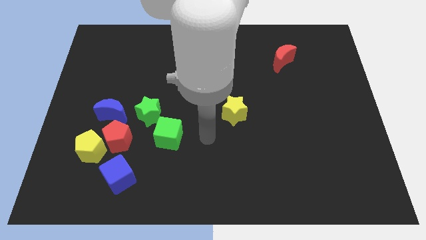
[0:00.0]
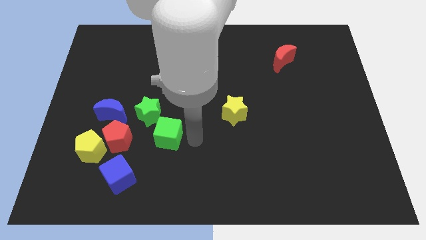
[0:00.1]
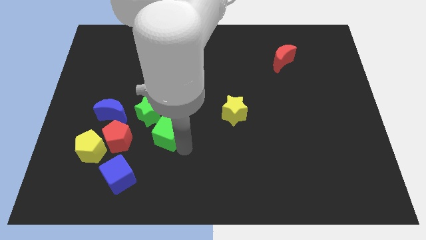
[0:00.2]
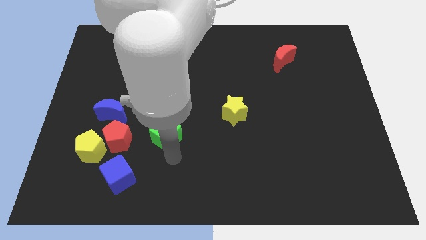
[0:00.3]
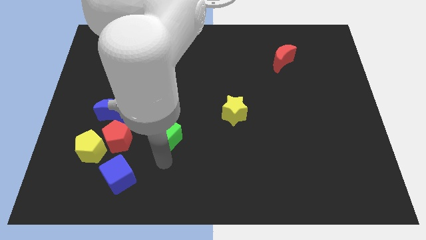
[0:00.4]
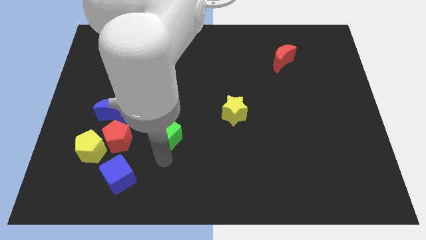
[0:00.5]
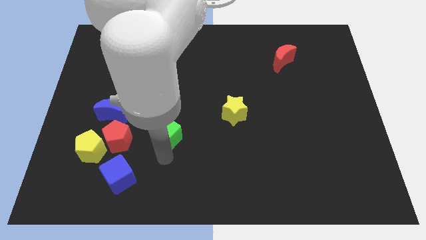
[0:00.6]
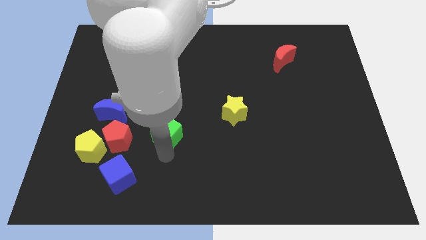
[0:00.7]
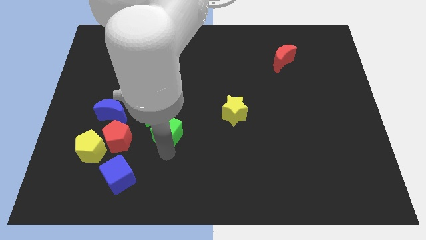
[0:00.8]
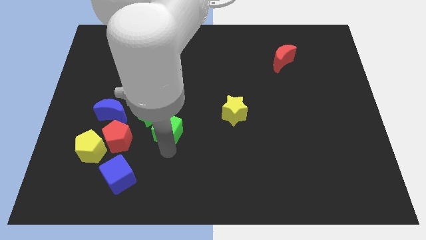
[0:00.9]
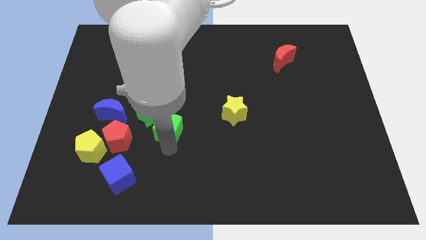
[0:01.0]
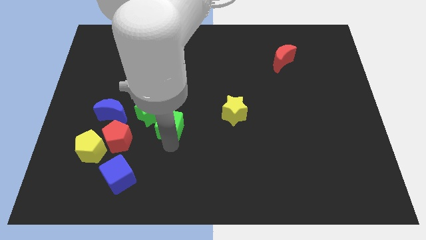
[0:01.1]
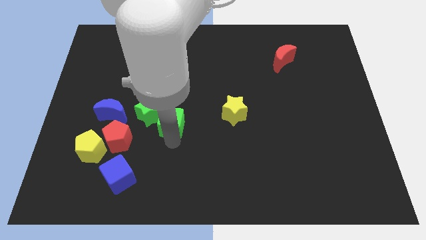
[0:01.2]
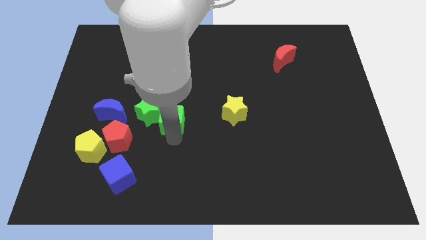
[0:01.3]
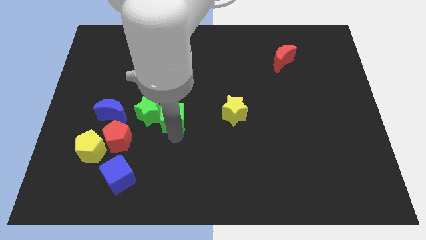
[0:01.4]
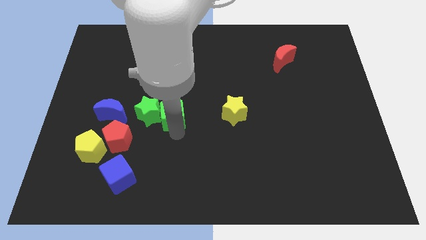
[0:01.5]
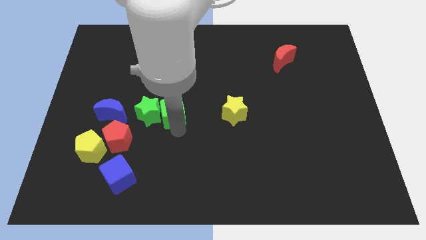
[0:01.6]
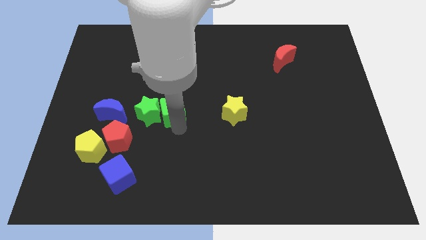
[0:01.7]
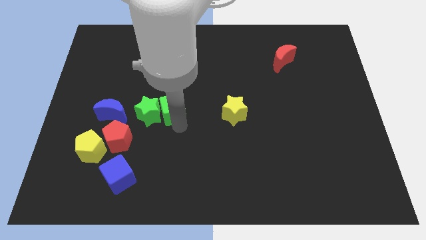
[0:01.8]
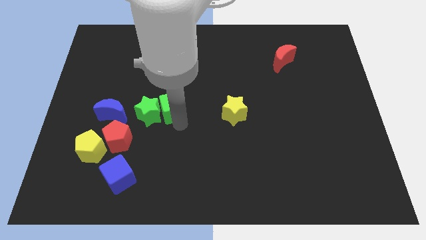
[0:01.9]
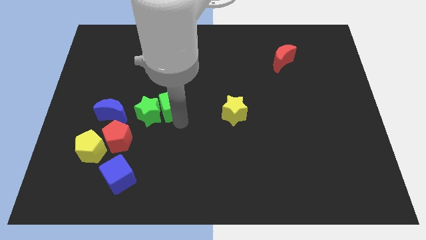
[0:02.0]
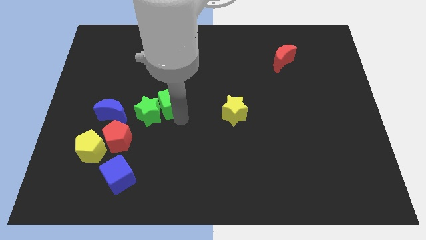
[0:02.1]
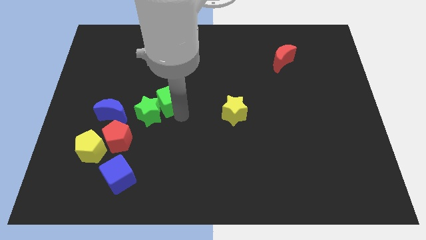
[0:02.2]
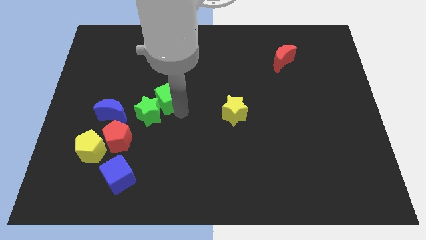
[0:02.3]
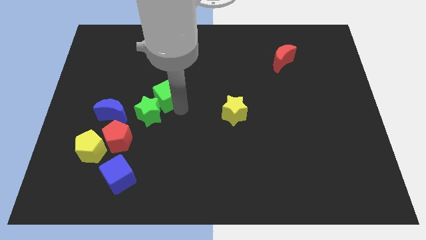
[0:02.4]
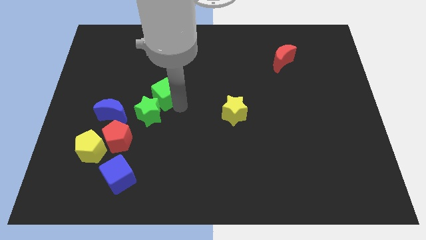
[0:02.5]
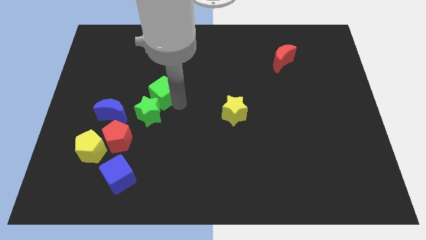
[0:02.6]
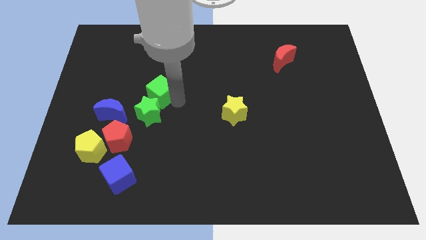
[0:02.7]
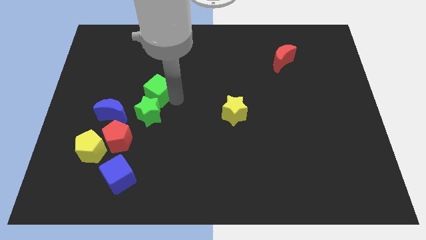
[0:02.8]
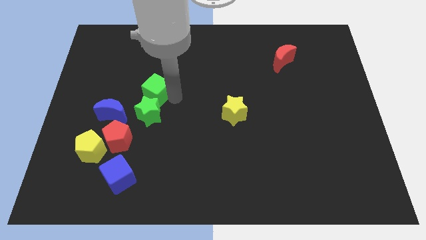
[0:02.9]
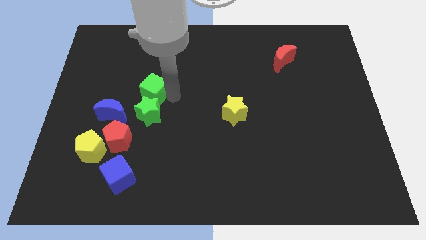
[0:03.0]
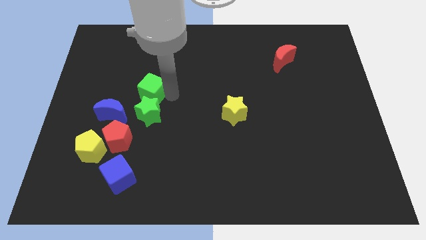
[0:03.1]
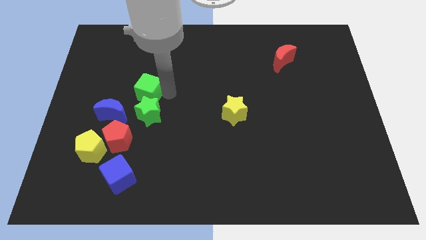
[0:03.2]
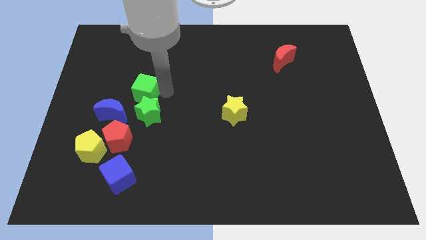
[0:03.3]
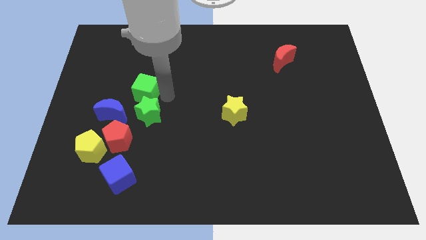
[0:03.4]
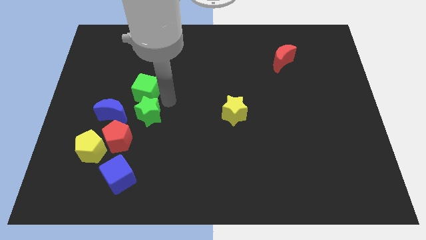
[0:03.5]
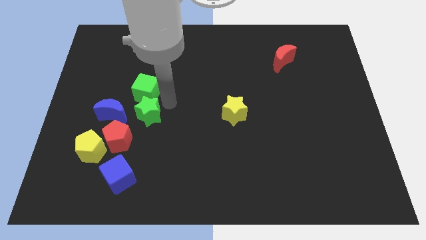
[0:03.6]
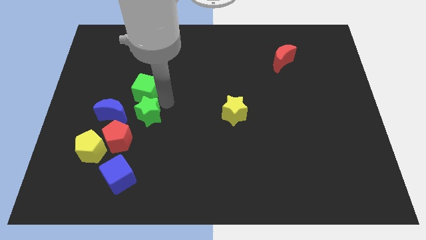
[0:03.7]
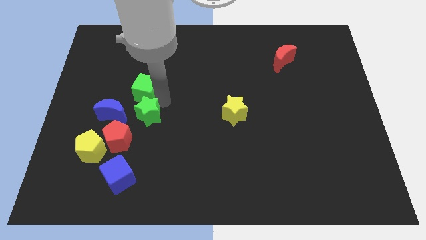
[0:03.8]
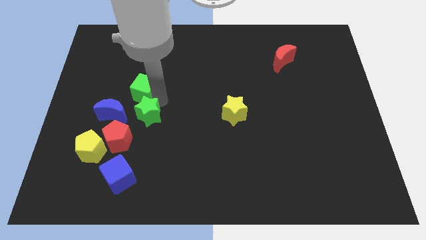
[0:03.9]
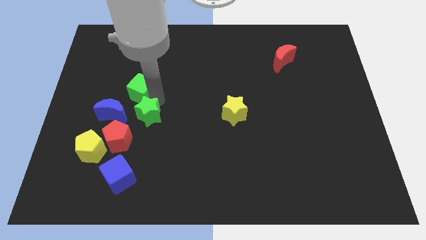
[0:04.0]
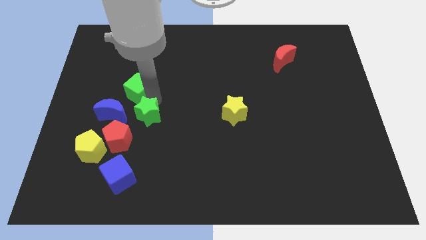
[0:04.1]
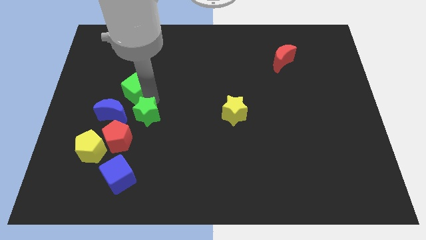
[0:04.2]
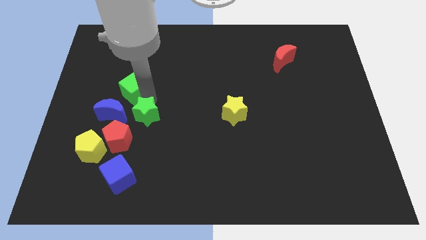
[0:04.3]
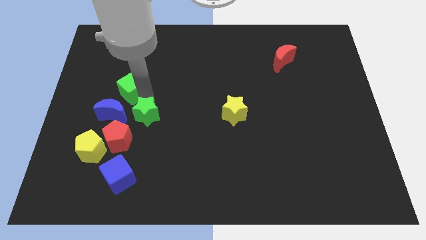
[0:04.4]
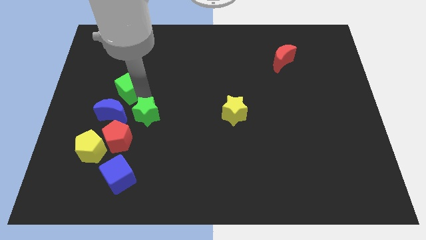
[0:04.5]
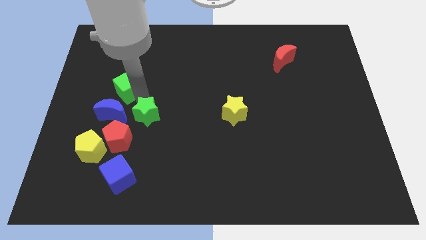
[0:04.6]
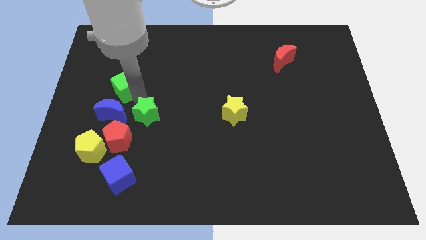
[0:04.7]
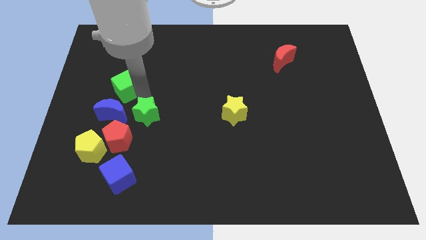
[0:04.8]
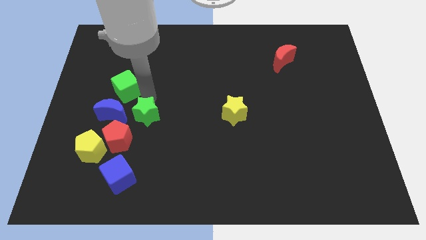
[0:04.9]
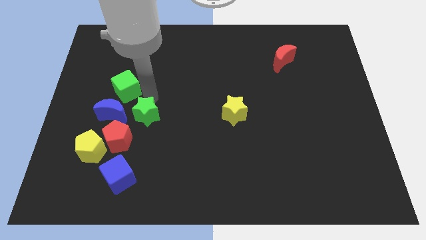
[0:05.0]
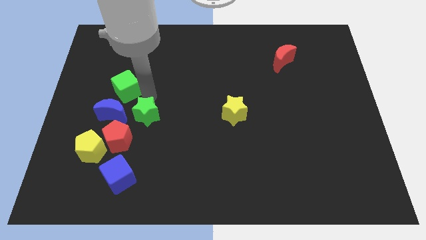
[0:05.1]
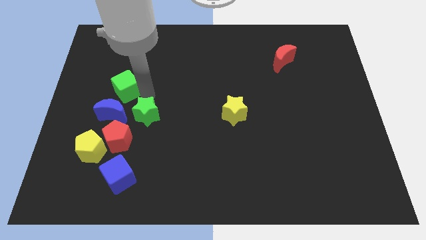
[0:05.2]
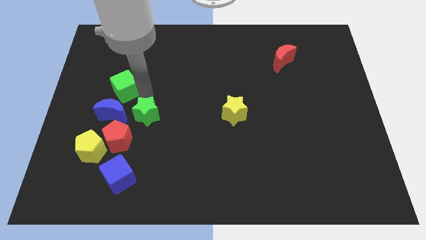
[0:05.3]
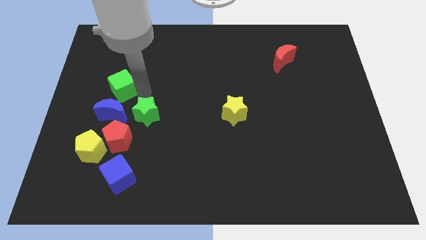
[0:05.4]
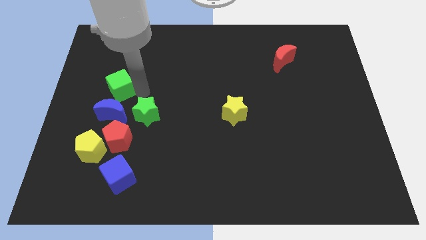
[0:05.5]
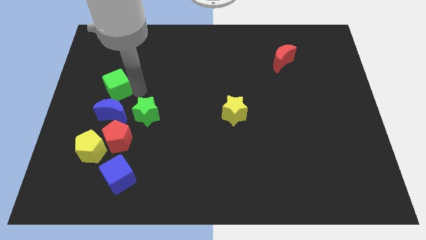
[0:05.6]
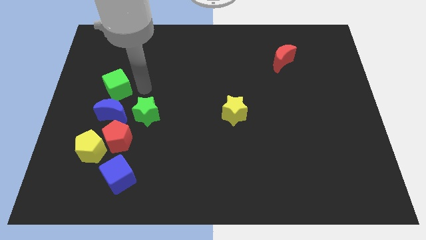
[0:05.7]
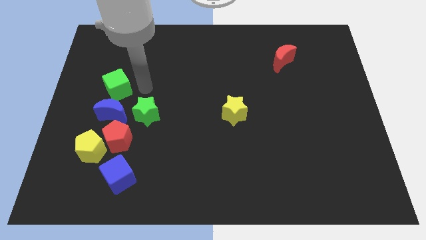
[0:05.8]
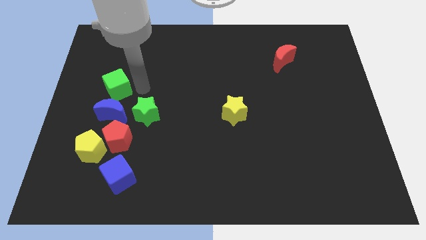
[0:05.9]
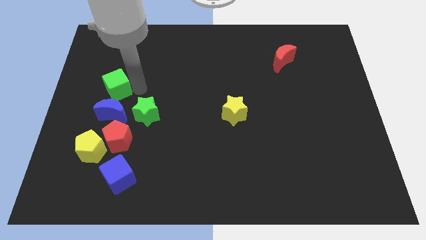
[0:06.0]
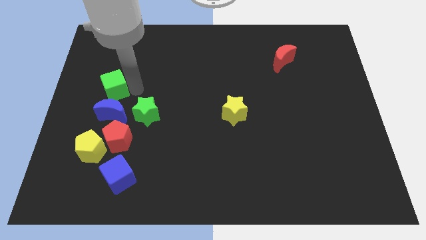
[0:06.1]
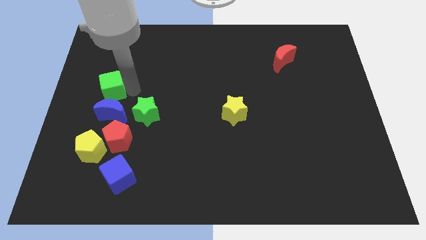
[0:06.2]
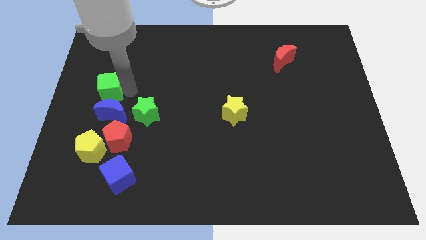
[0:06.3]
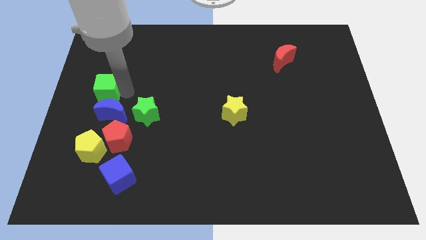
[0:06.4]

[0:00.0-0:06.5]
move the green cube to the center left

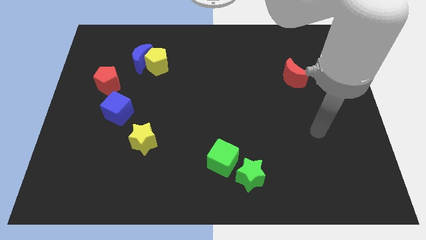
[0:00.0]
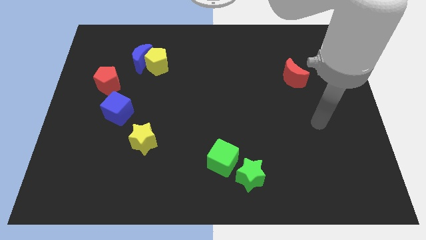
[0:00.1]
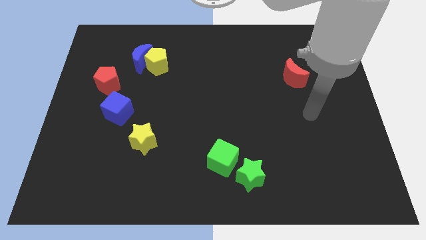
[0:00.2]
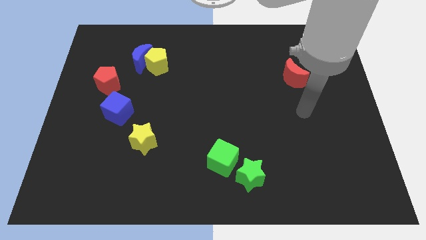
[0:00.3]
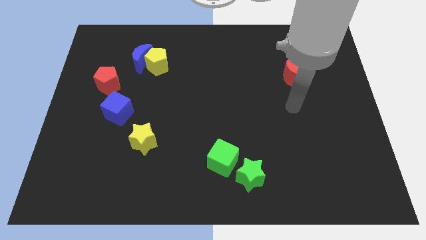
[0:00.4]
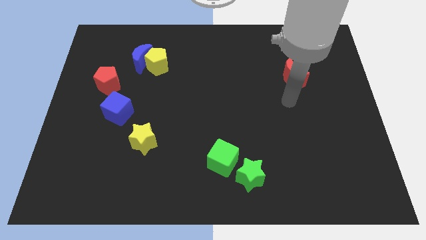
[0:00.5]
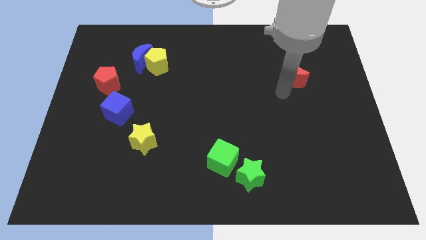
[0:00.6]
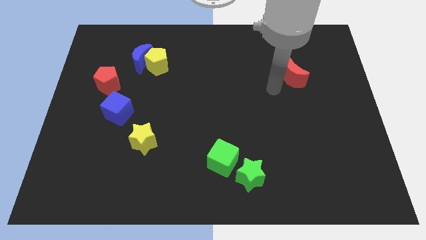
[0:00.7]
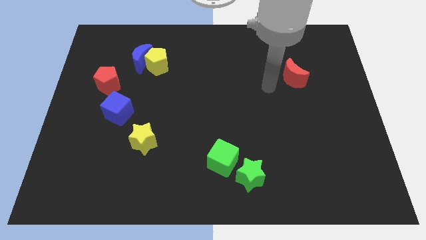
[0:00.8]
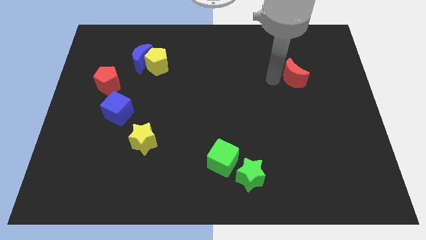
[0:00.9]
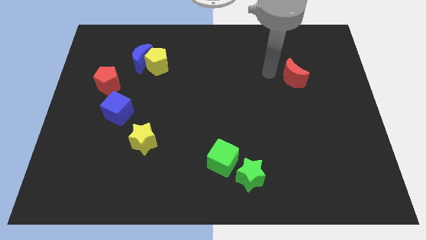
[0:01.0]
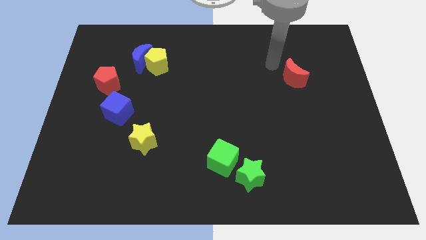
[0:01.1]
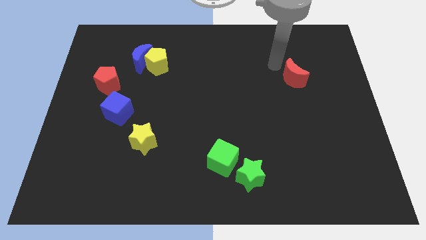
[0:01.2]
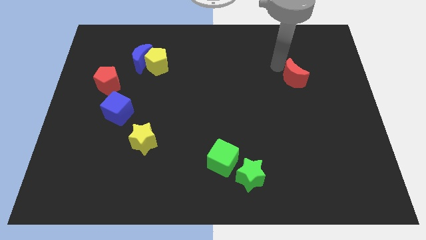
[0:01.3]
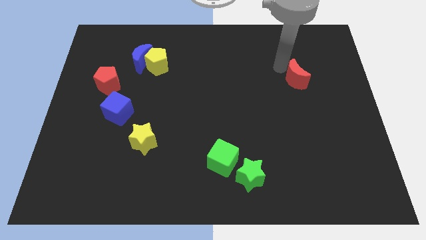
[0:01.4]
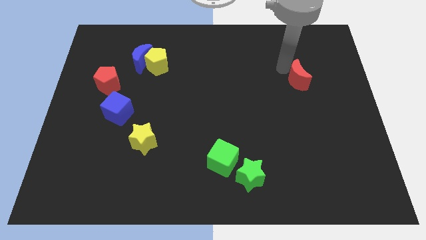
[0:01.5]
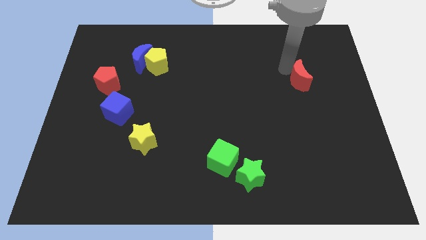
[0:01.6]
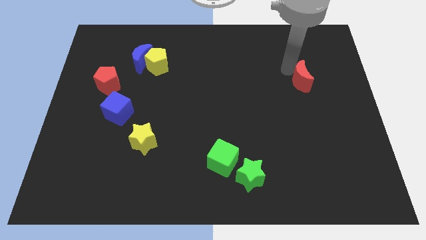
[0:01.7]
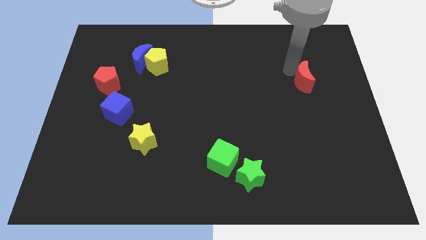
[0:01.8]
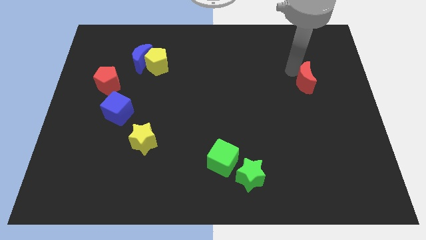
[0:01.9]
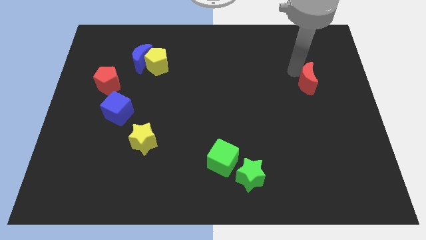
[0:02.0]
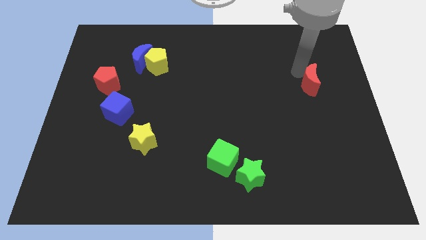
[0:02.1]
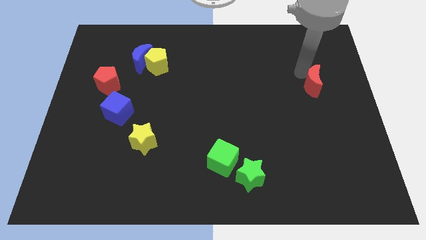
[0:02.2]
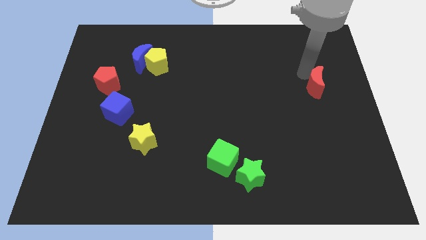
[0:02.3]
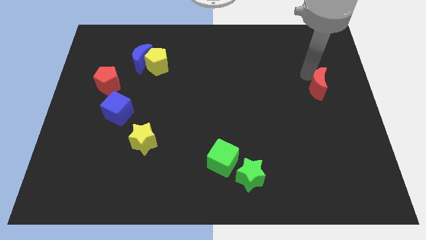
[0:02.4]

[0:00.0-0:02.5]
push the red moon to the right side of the board
